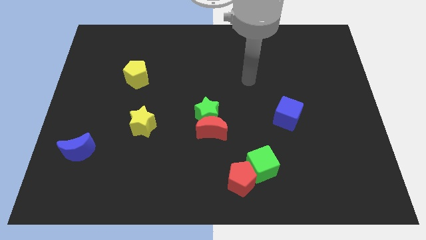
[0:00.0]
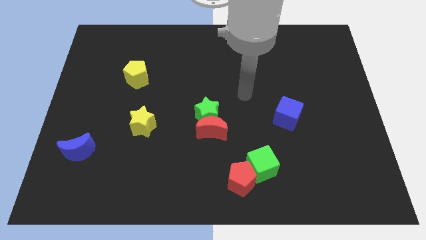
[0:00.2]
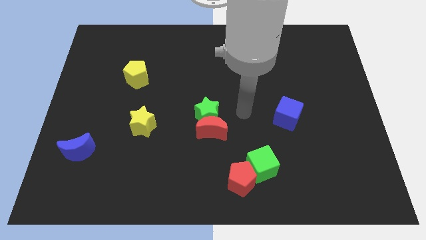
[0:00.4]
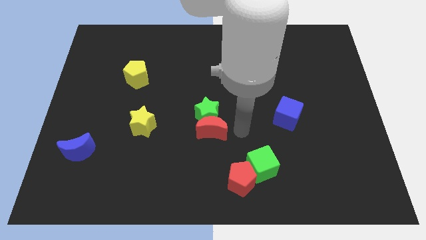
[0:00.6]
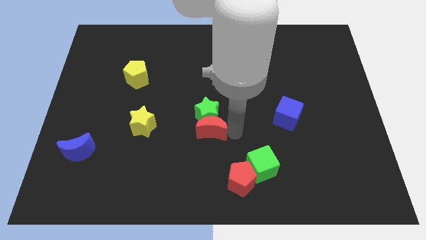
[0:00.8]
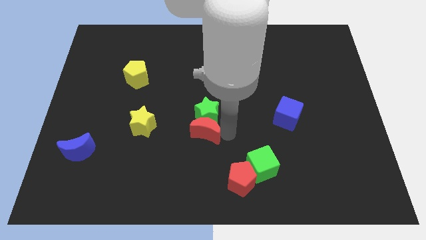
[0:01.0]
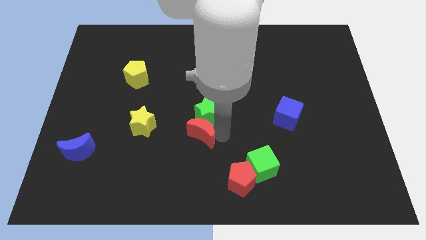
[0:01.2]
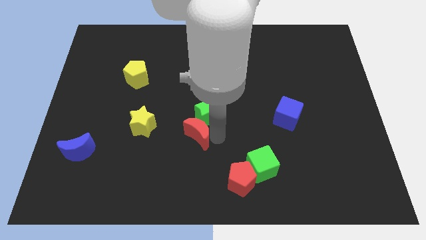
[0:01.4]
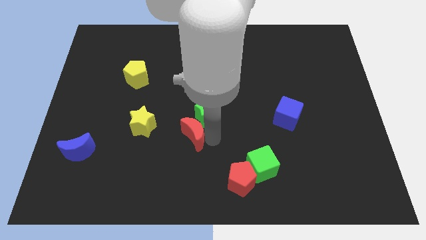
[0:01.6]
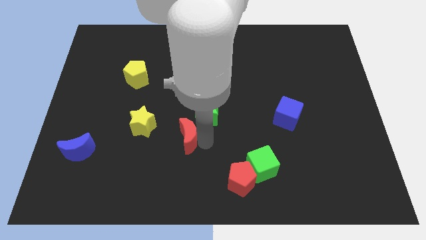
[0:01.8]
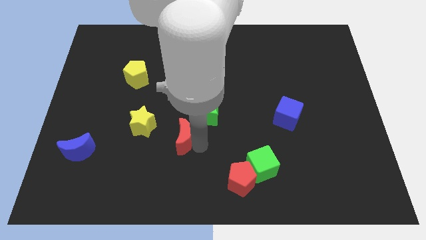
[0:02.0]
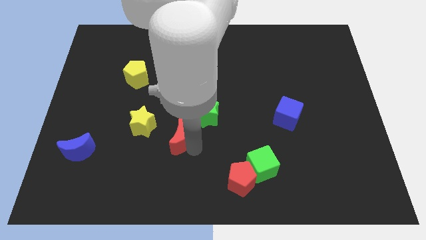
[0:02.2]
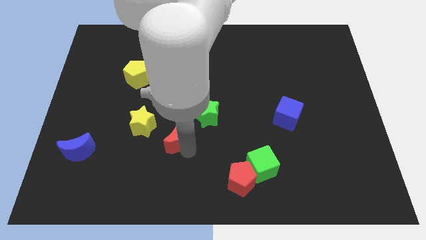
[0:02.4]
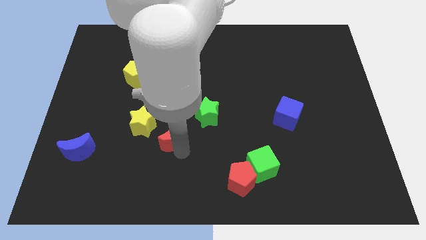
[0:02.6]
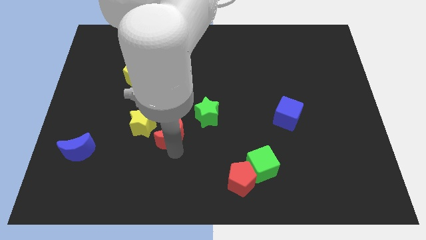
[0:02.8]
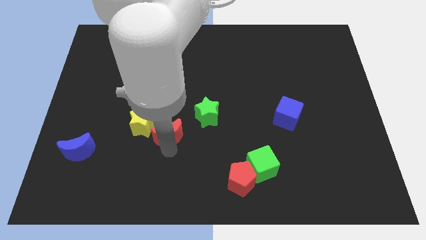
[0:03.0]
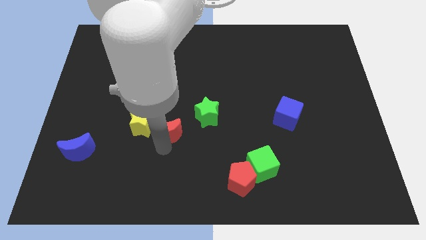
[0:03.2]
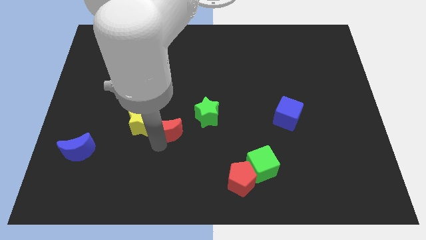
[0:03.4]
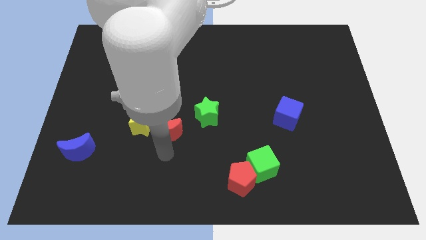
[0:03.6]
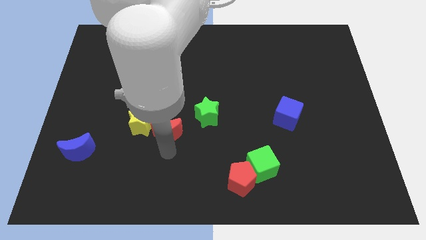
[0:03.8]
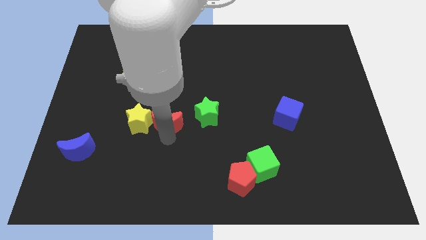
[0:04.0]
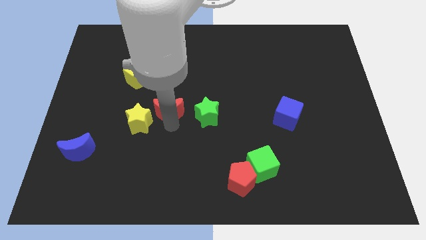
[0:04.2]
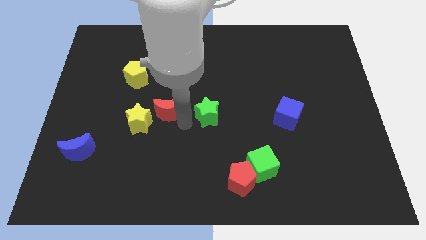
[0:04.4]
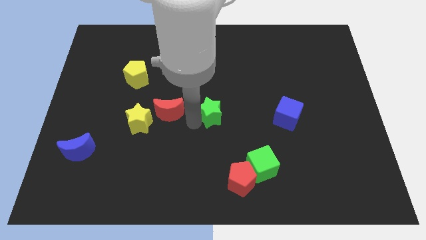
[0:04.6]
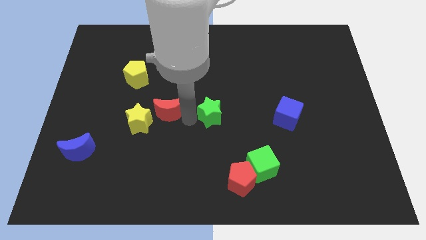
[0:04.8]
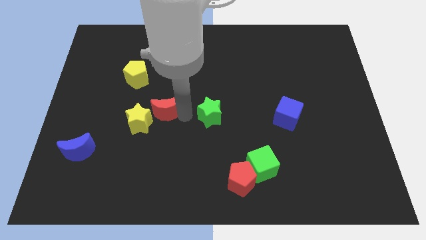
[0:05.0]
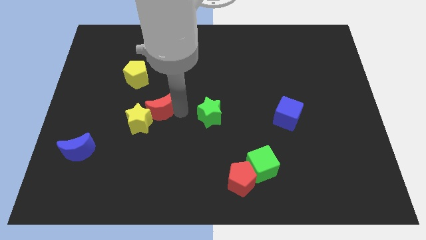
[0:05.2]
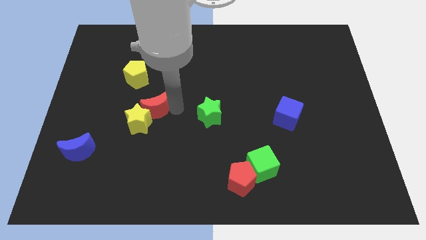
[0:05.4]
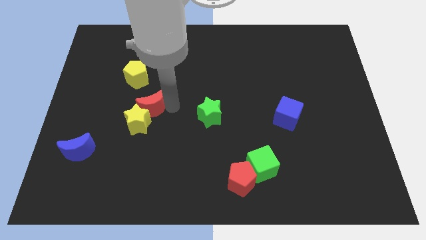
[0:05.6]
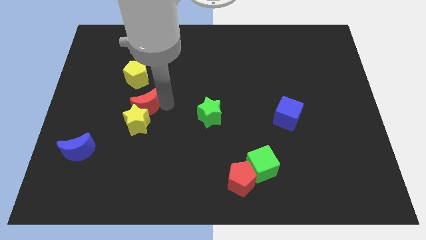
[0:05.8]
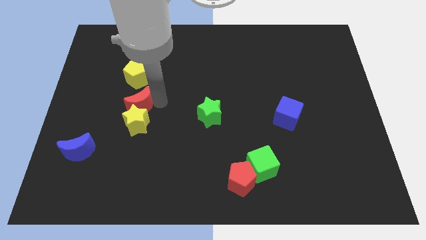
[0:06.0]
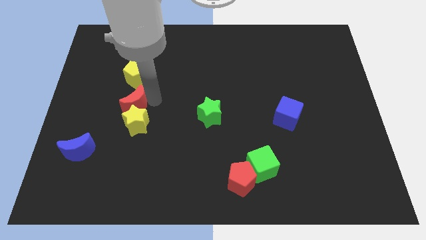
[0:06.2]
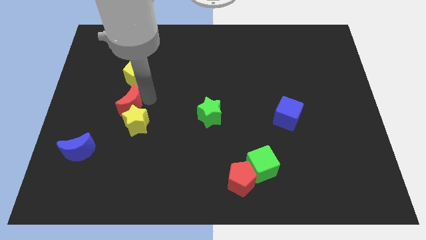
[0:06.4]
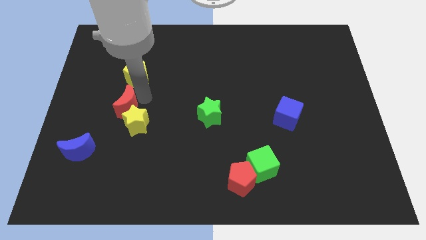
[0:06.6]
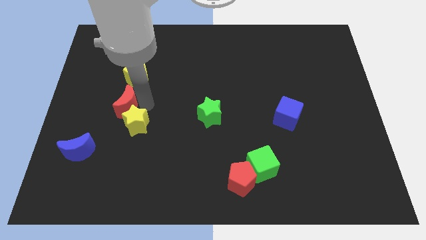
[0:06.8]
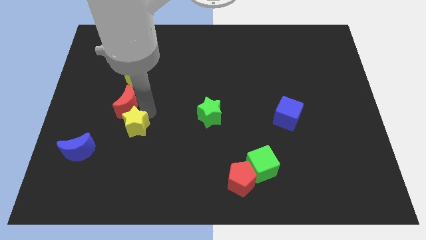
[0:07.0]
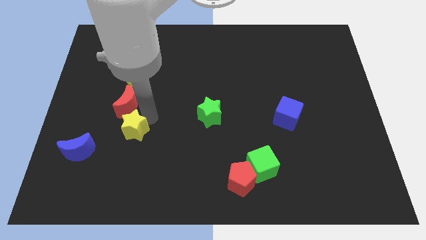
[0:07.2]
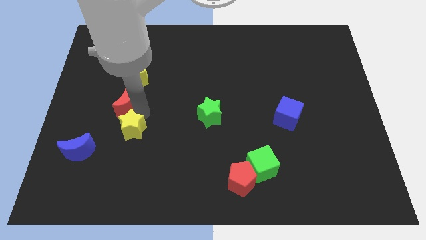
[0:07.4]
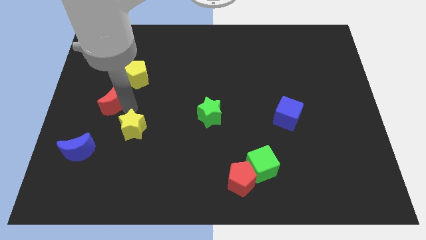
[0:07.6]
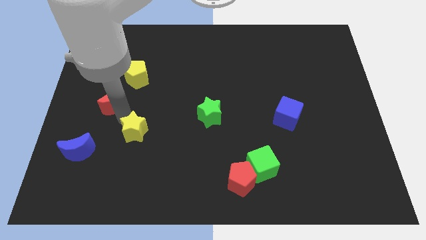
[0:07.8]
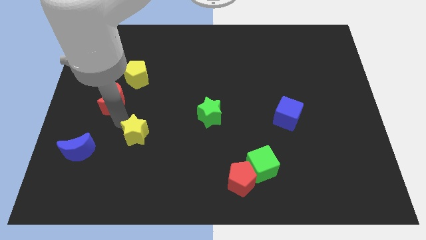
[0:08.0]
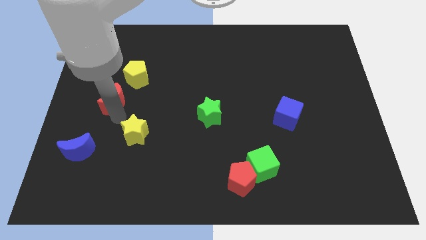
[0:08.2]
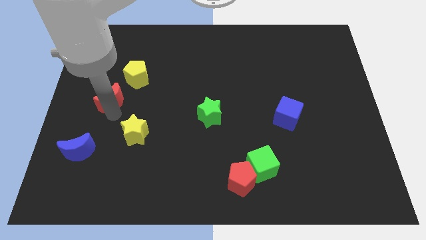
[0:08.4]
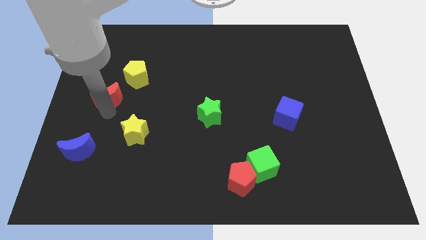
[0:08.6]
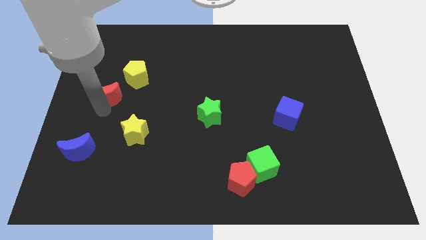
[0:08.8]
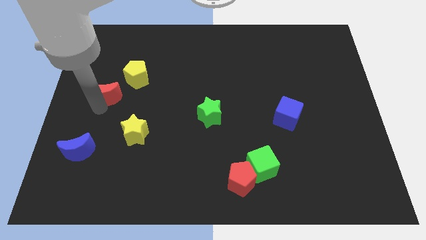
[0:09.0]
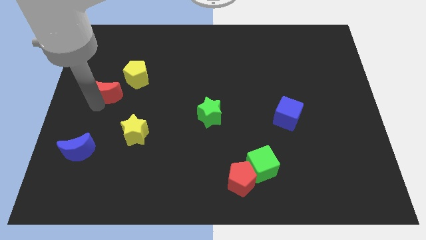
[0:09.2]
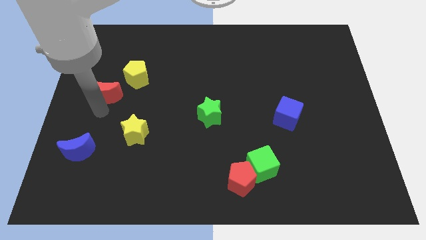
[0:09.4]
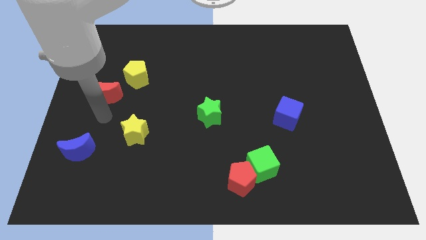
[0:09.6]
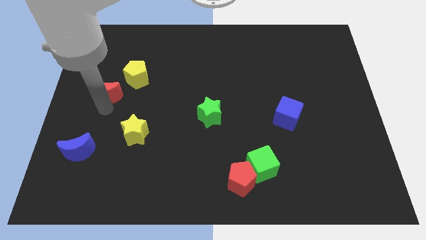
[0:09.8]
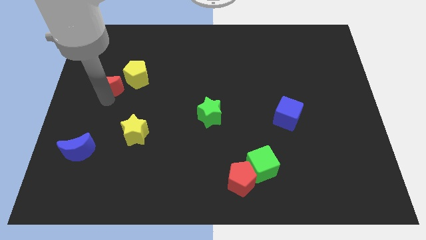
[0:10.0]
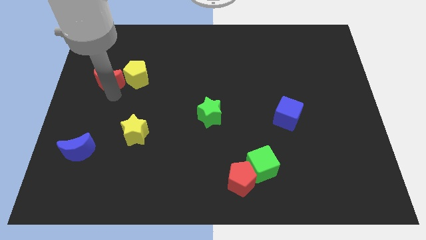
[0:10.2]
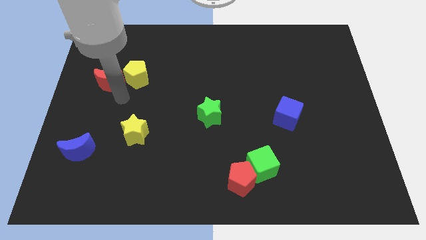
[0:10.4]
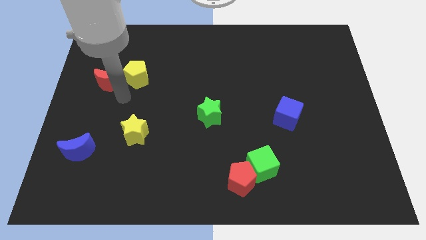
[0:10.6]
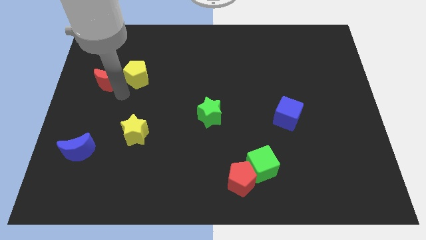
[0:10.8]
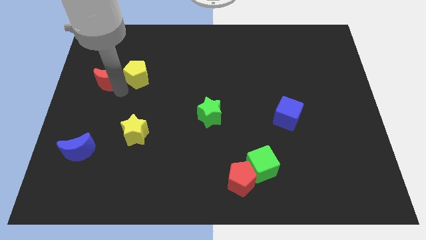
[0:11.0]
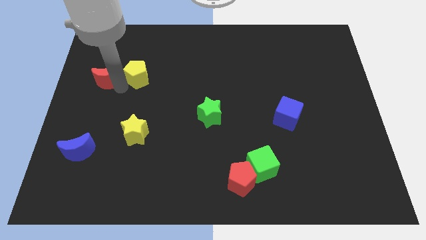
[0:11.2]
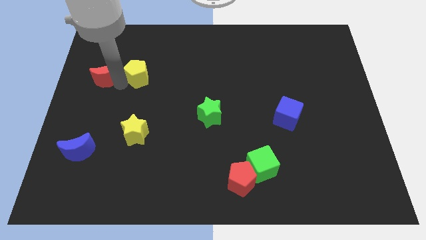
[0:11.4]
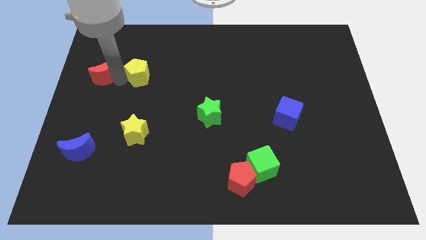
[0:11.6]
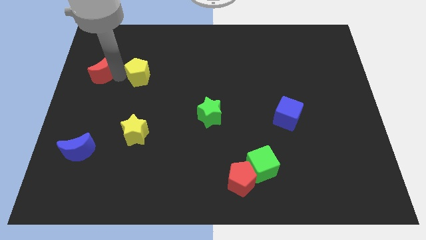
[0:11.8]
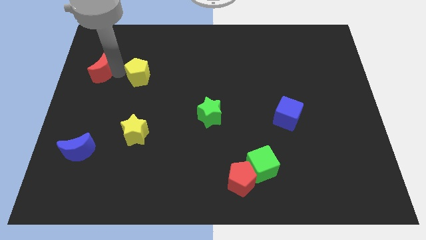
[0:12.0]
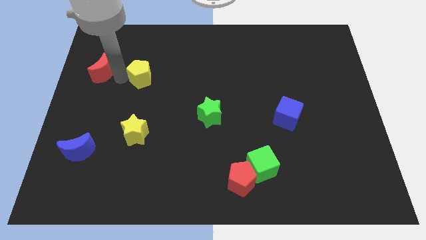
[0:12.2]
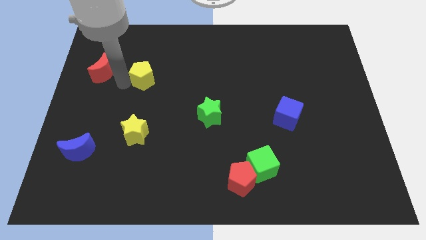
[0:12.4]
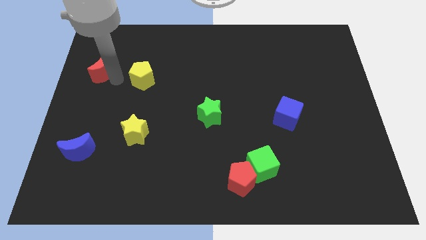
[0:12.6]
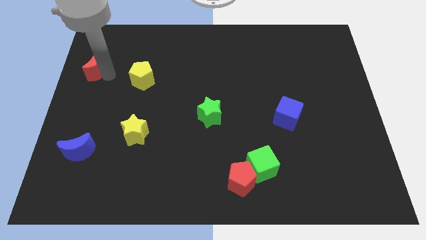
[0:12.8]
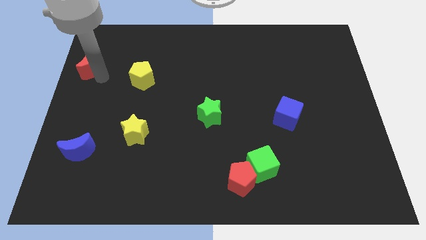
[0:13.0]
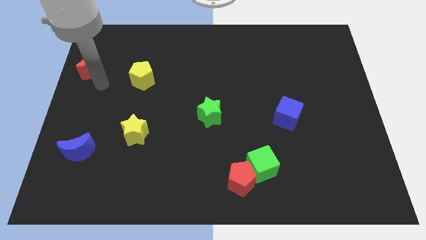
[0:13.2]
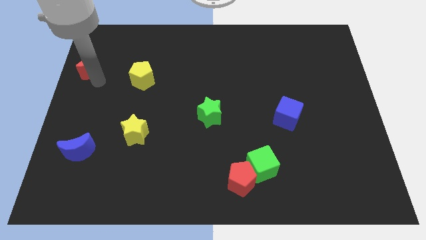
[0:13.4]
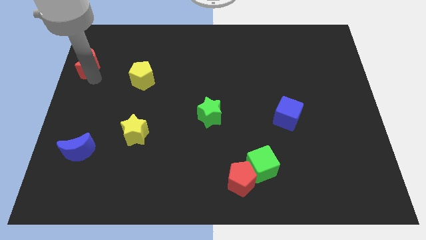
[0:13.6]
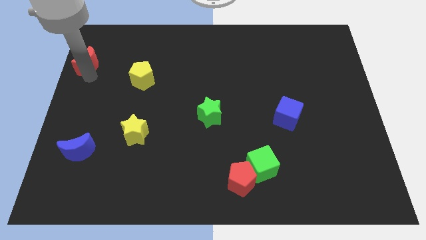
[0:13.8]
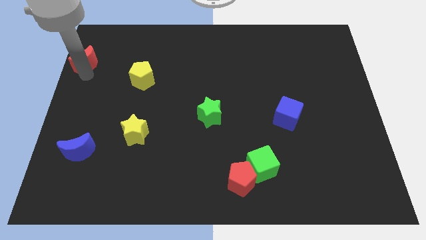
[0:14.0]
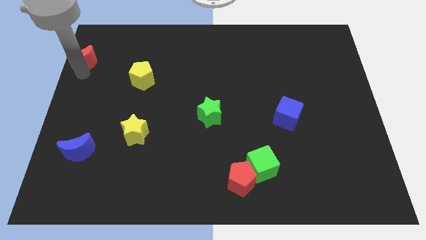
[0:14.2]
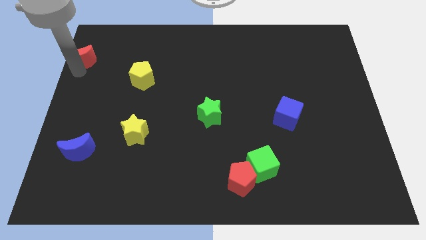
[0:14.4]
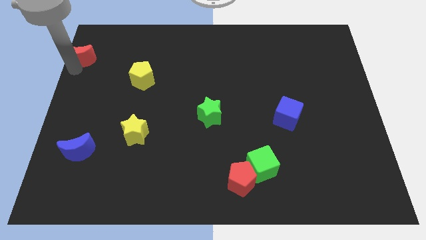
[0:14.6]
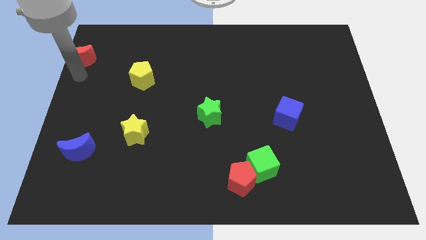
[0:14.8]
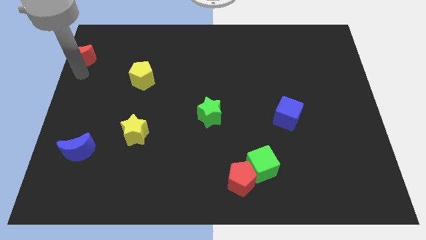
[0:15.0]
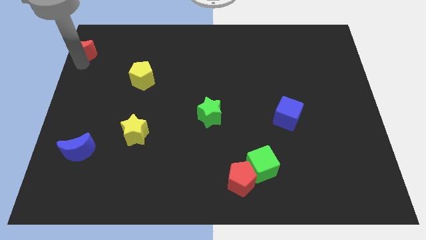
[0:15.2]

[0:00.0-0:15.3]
move the red moon to the top left of the board
